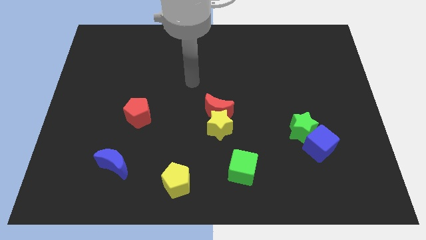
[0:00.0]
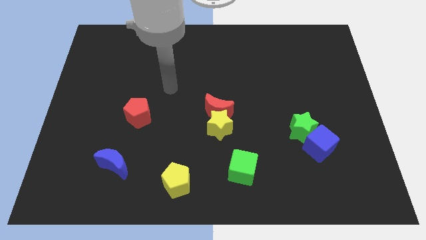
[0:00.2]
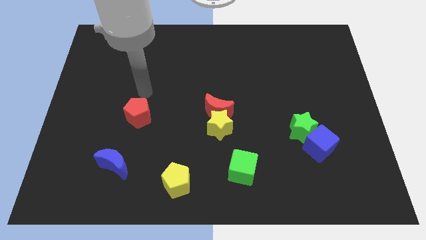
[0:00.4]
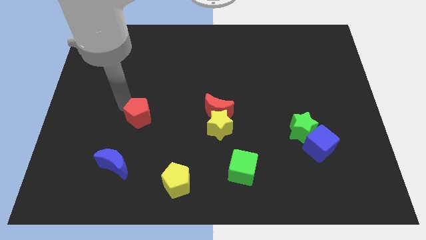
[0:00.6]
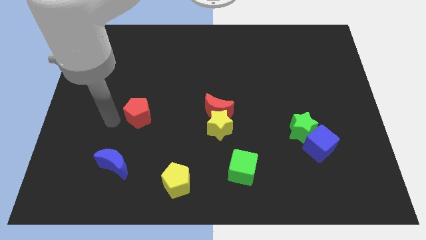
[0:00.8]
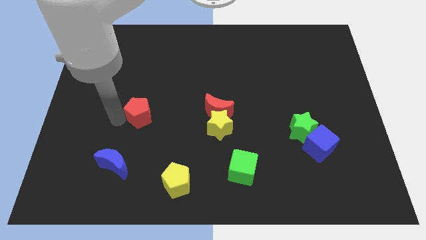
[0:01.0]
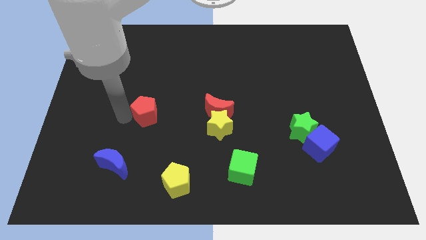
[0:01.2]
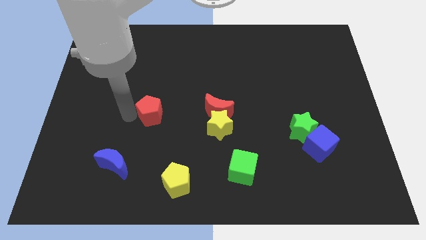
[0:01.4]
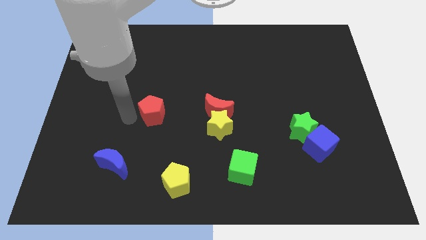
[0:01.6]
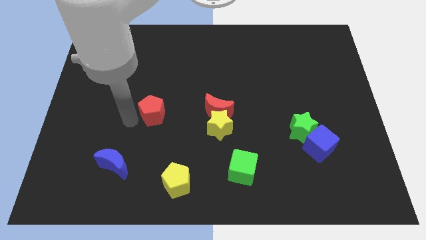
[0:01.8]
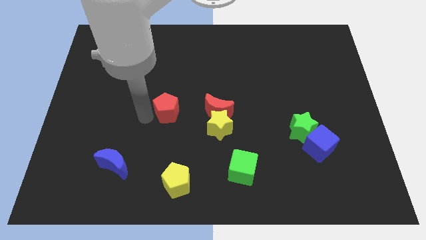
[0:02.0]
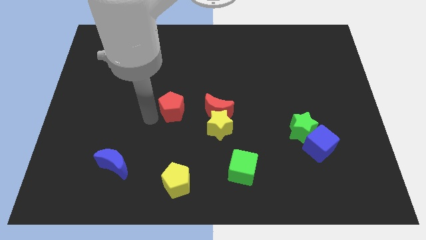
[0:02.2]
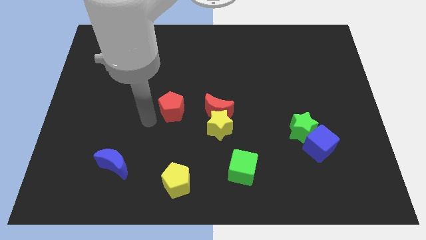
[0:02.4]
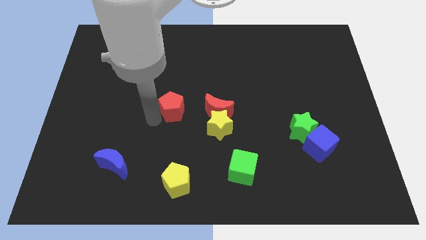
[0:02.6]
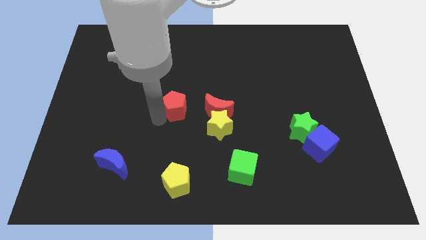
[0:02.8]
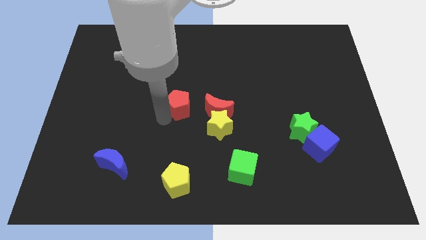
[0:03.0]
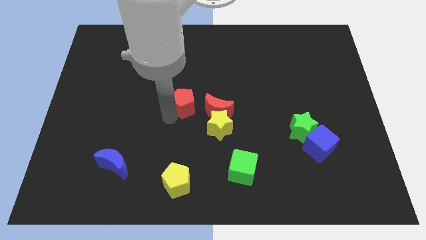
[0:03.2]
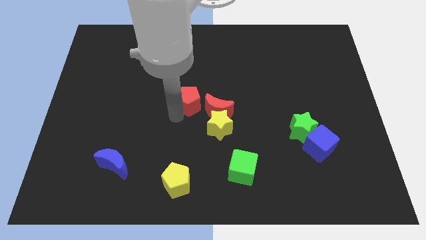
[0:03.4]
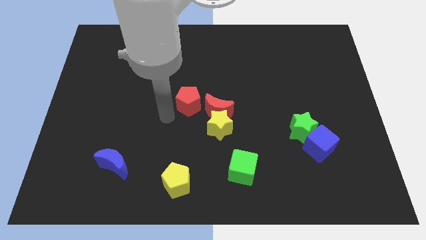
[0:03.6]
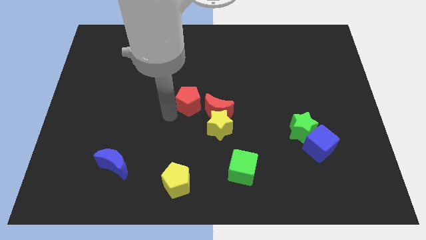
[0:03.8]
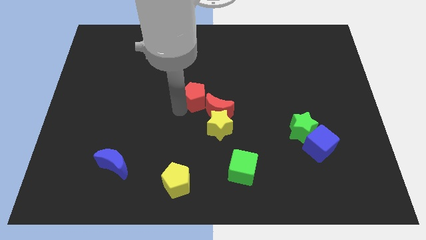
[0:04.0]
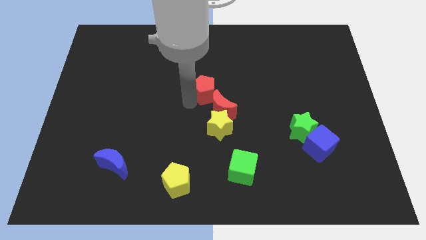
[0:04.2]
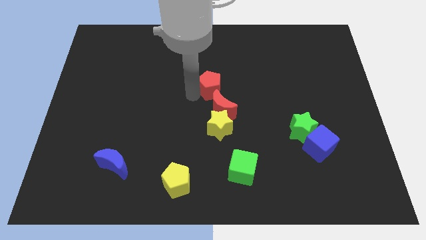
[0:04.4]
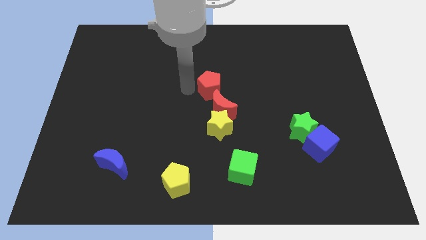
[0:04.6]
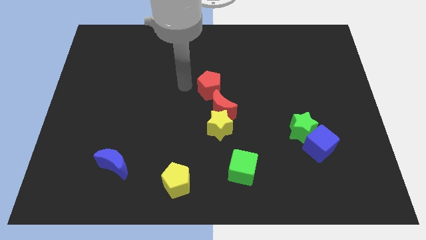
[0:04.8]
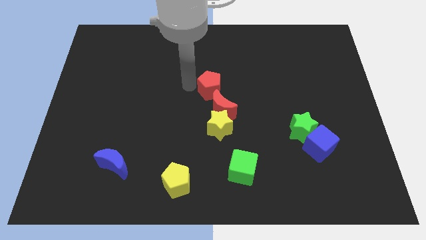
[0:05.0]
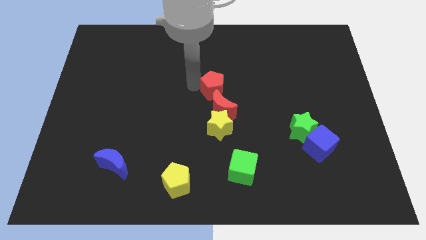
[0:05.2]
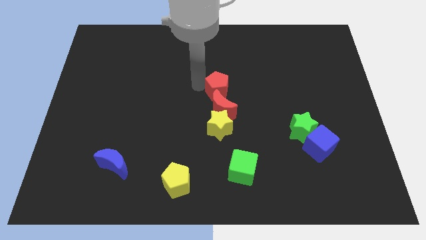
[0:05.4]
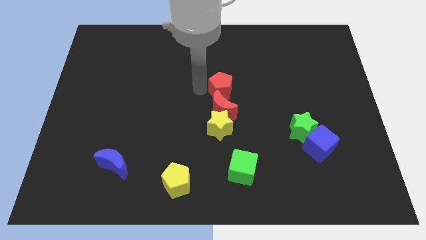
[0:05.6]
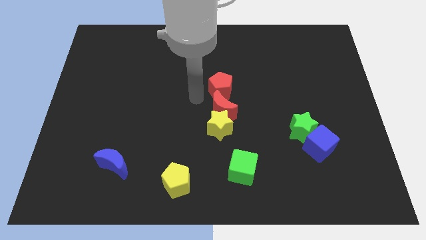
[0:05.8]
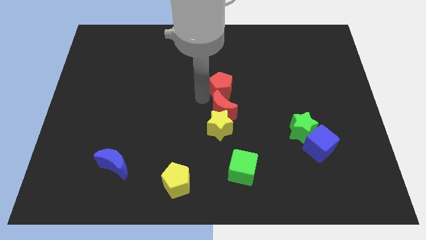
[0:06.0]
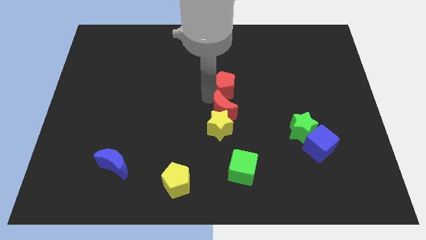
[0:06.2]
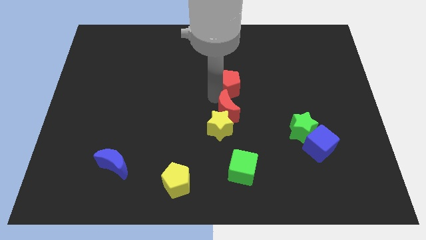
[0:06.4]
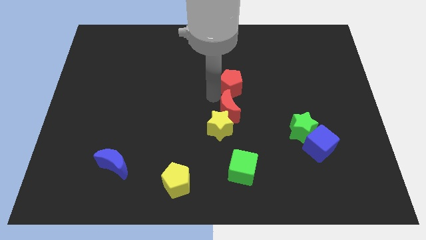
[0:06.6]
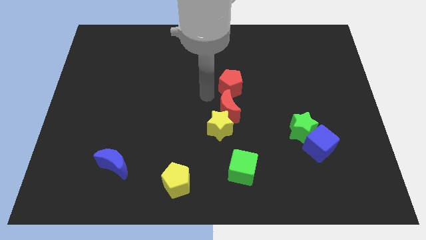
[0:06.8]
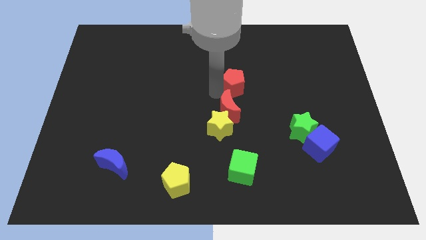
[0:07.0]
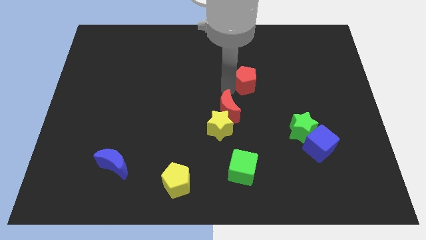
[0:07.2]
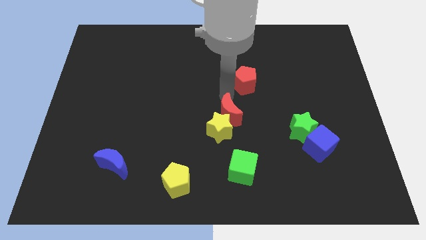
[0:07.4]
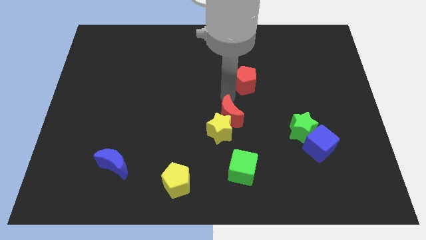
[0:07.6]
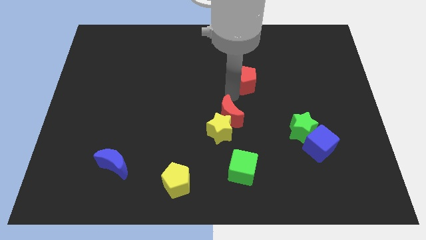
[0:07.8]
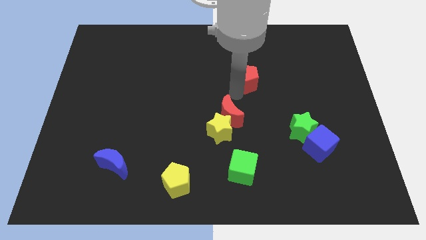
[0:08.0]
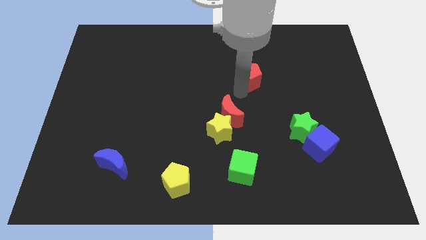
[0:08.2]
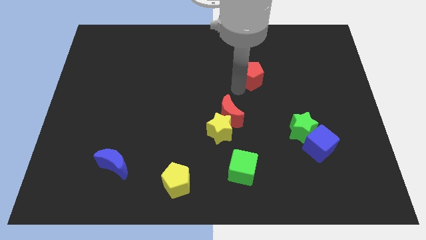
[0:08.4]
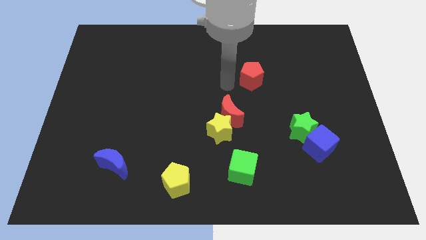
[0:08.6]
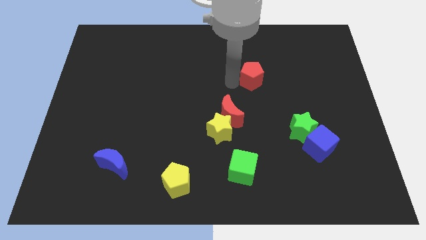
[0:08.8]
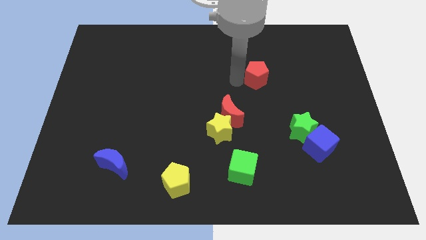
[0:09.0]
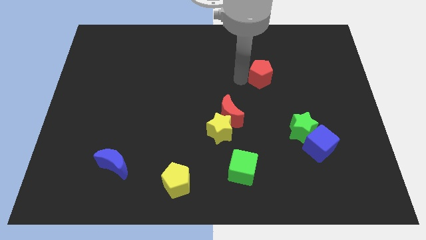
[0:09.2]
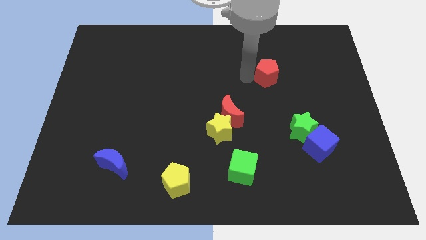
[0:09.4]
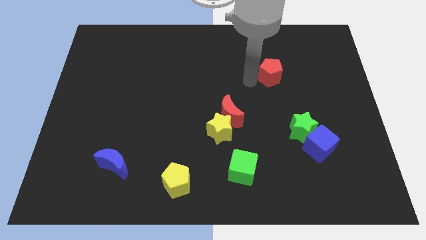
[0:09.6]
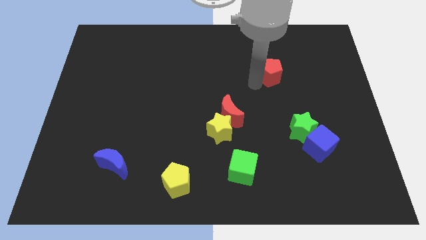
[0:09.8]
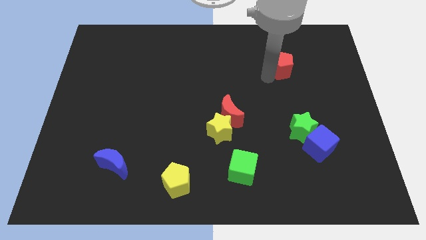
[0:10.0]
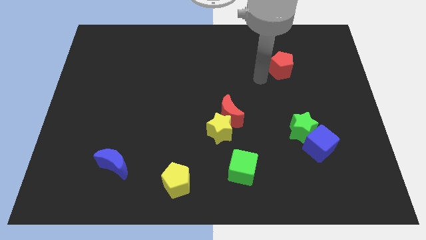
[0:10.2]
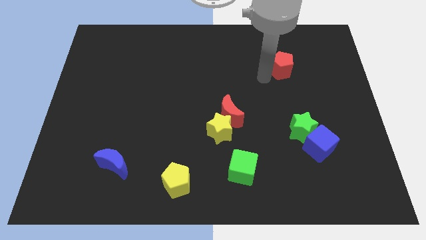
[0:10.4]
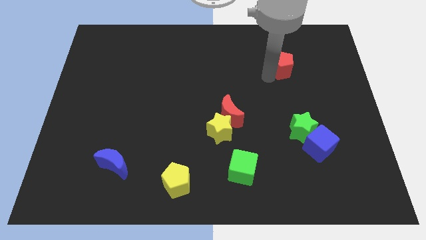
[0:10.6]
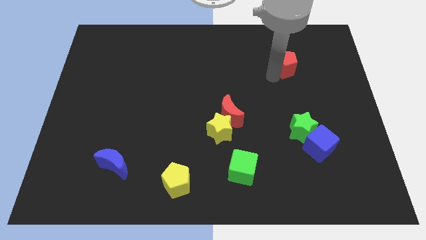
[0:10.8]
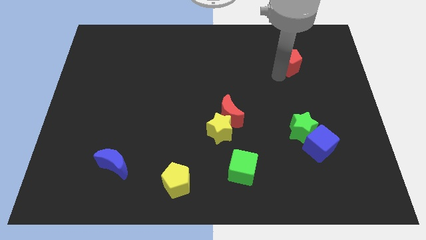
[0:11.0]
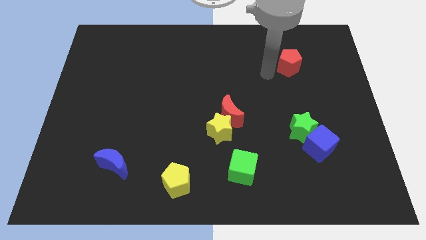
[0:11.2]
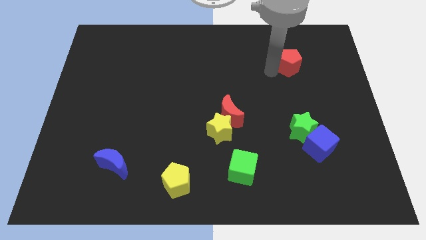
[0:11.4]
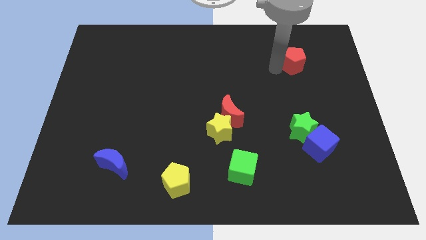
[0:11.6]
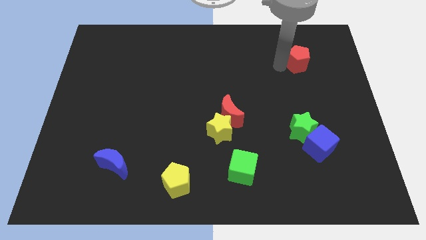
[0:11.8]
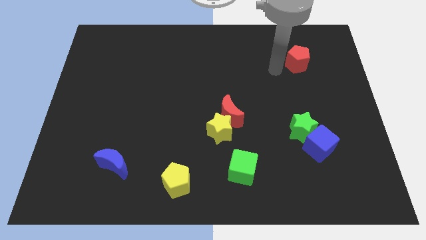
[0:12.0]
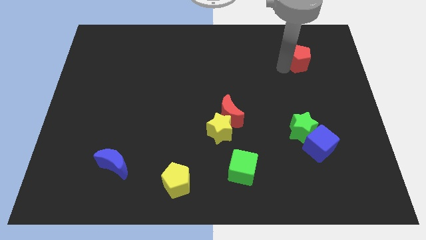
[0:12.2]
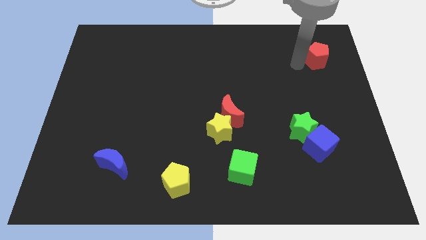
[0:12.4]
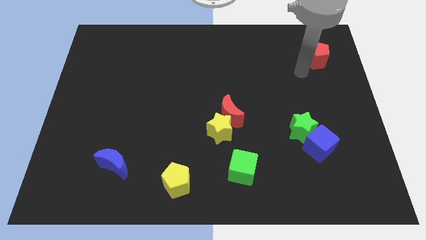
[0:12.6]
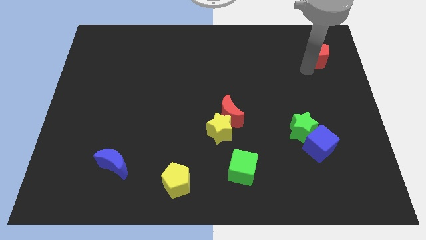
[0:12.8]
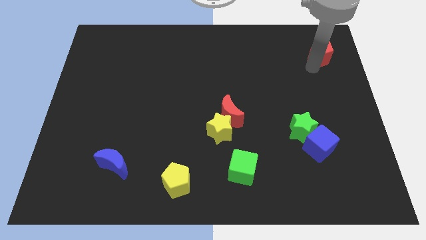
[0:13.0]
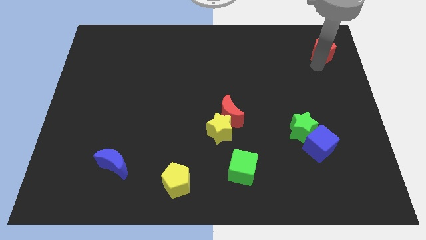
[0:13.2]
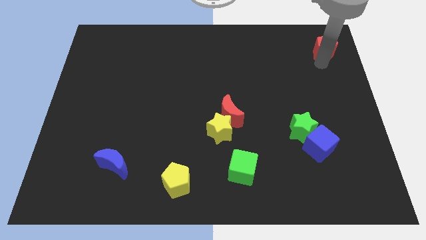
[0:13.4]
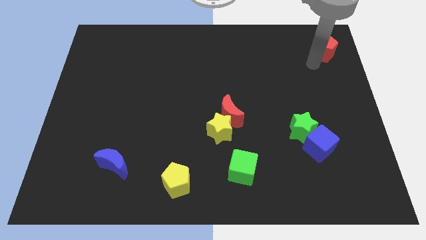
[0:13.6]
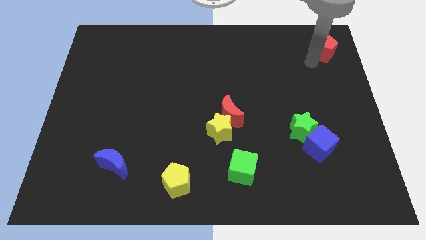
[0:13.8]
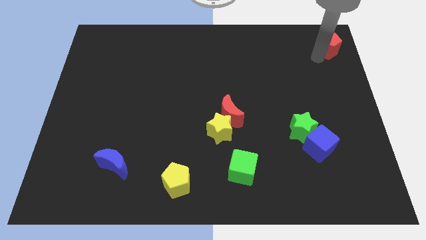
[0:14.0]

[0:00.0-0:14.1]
push the red pentagon to the top right of the board
